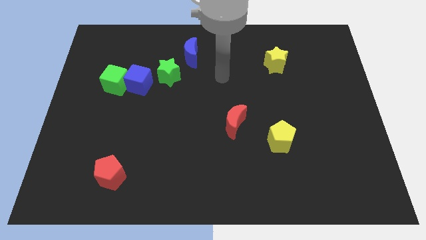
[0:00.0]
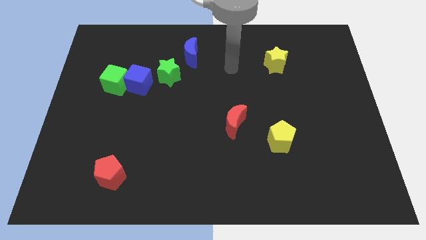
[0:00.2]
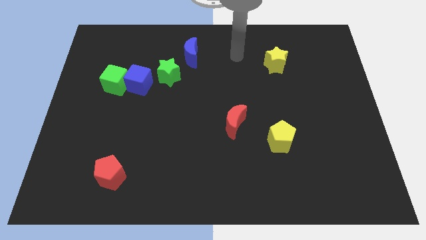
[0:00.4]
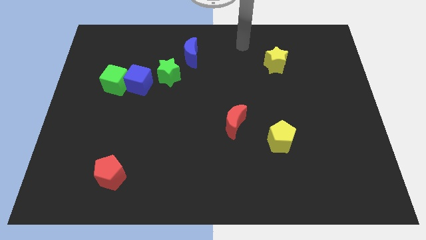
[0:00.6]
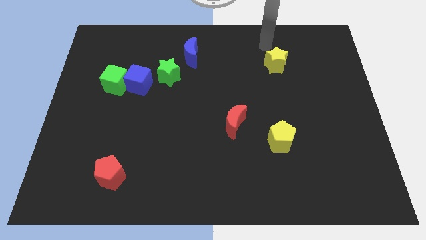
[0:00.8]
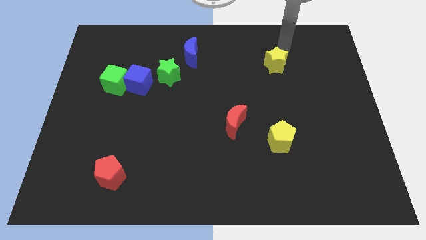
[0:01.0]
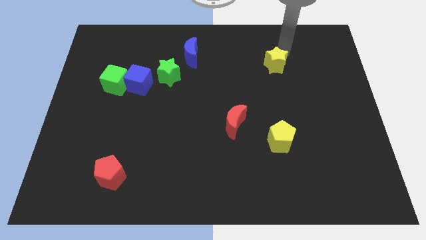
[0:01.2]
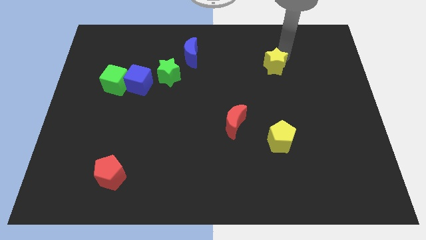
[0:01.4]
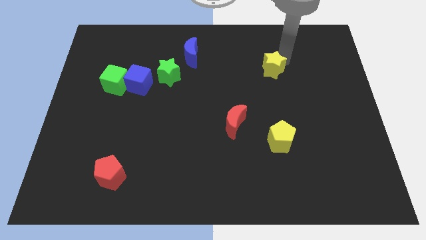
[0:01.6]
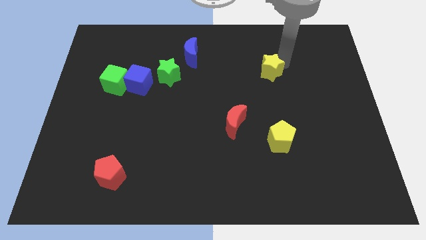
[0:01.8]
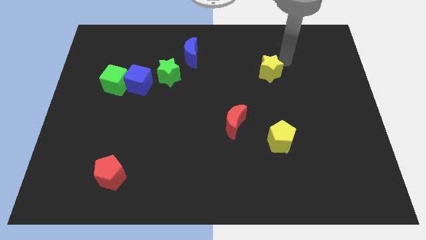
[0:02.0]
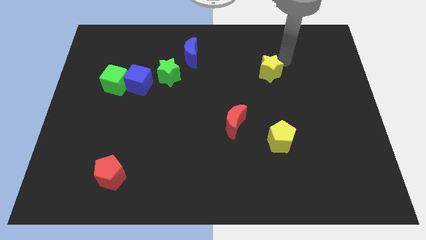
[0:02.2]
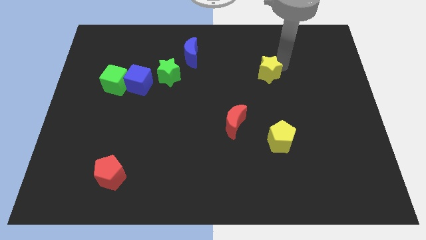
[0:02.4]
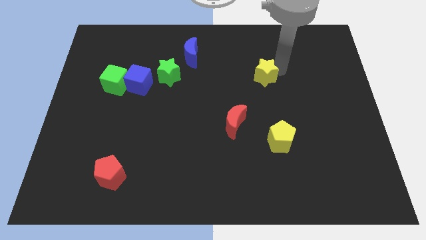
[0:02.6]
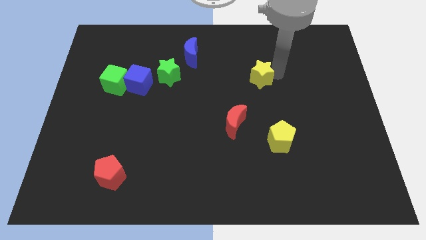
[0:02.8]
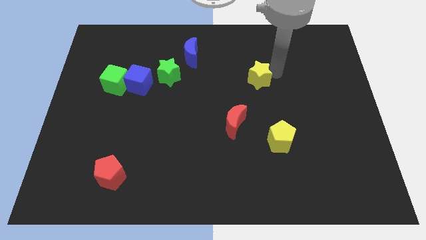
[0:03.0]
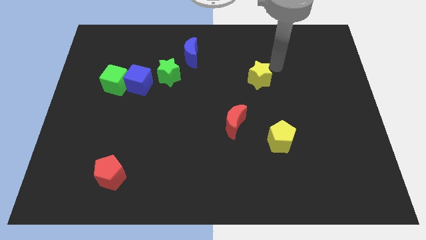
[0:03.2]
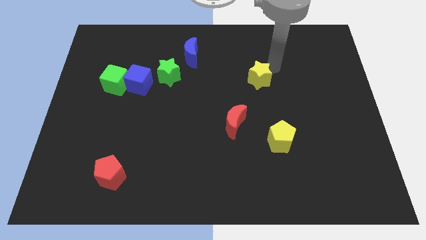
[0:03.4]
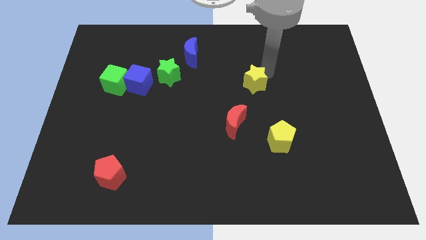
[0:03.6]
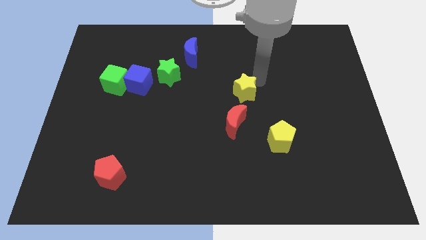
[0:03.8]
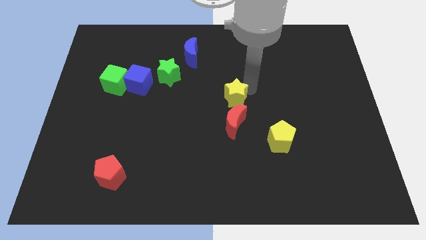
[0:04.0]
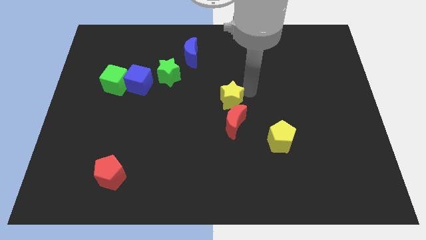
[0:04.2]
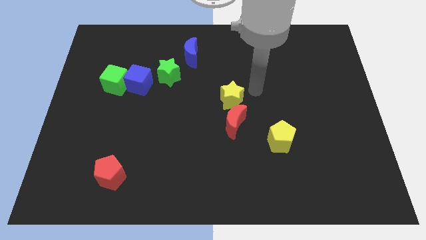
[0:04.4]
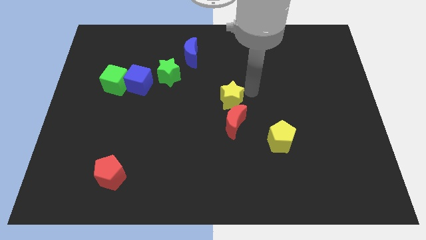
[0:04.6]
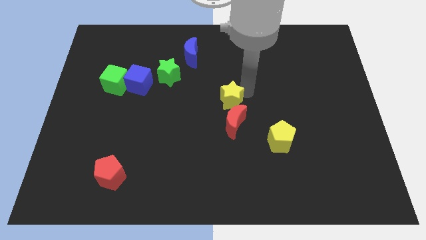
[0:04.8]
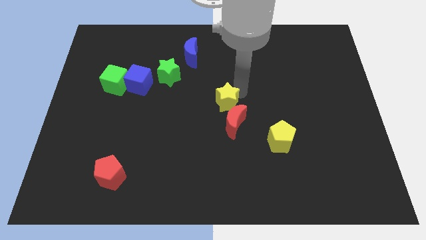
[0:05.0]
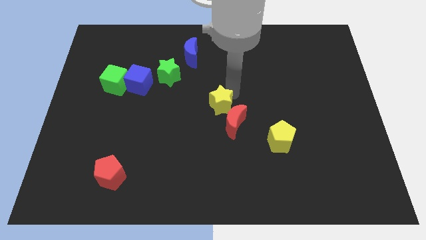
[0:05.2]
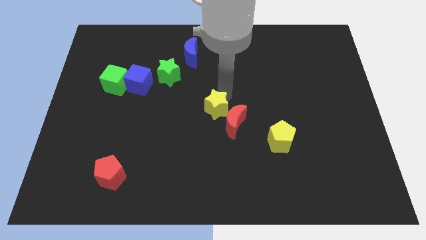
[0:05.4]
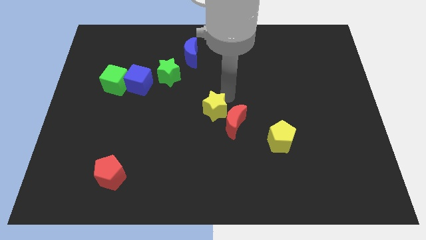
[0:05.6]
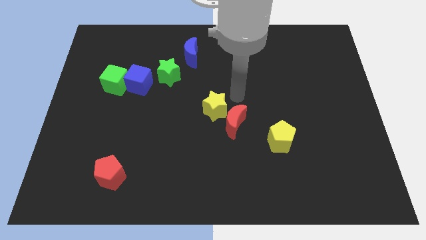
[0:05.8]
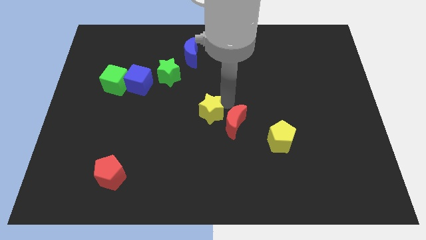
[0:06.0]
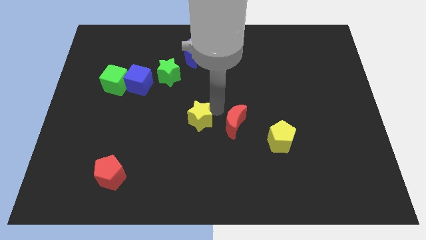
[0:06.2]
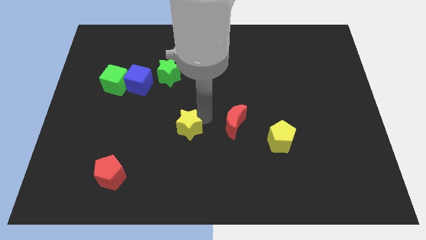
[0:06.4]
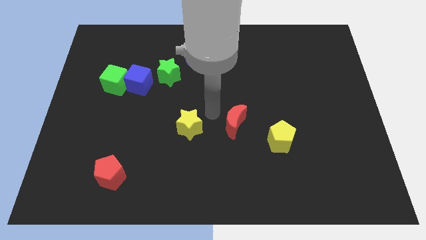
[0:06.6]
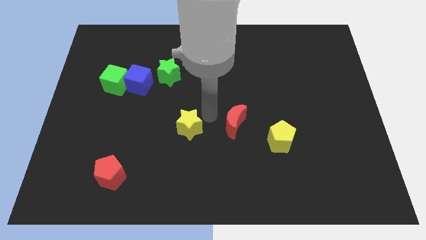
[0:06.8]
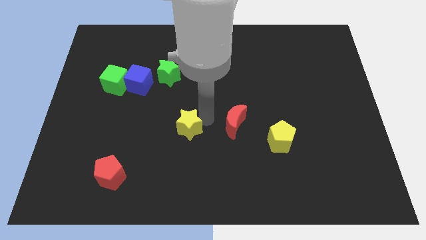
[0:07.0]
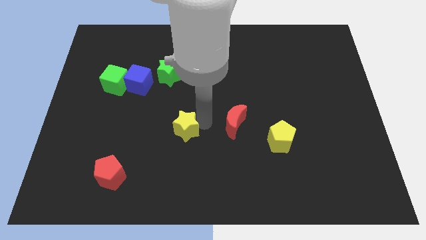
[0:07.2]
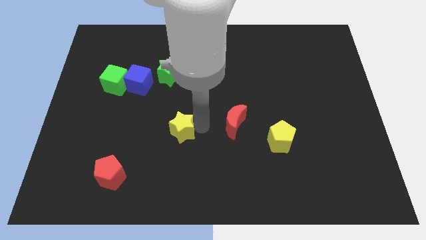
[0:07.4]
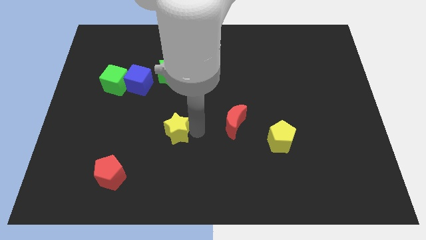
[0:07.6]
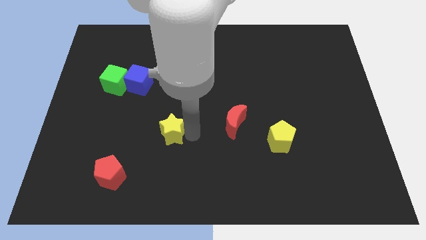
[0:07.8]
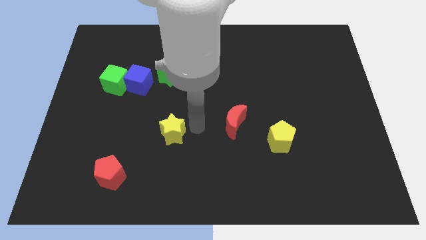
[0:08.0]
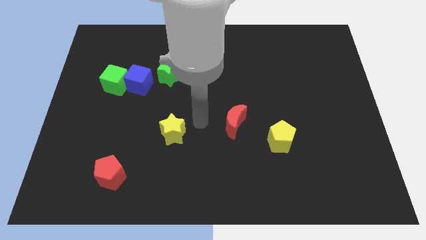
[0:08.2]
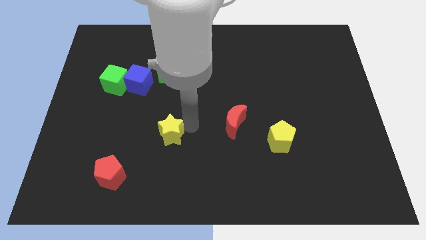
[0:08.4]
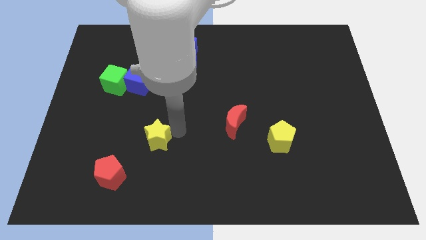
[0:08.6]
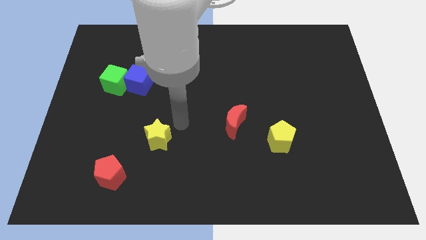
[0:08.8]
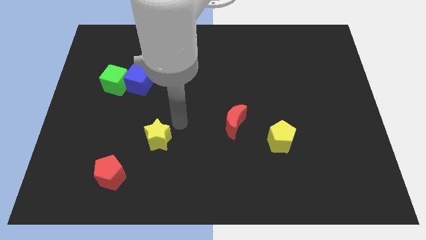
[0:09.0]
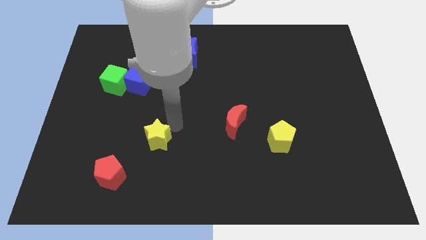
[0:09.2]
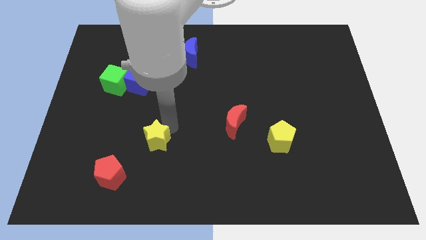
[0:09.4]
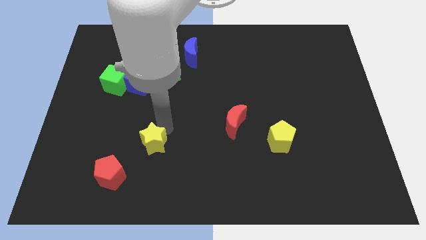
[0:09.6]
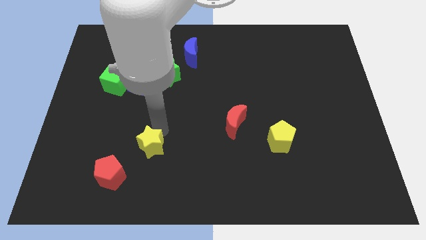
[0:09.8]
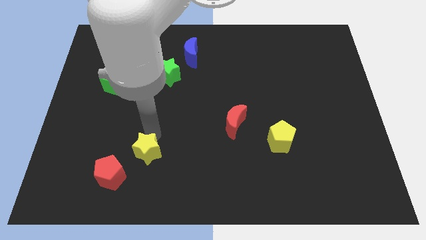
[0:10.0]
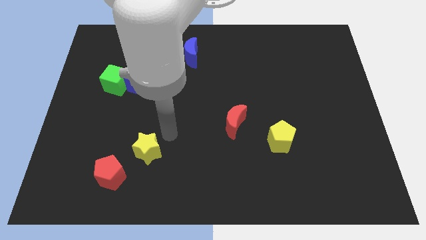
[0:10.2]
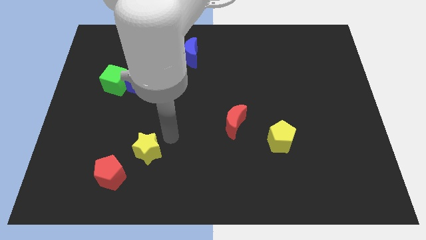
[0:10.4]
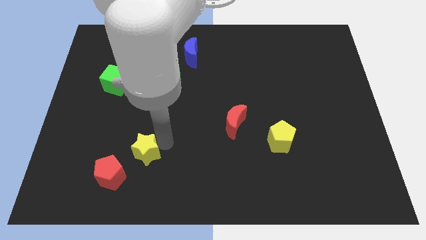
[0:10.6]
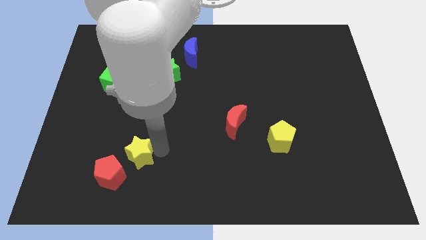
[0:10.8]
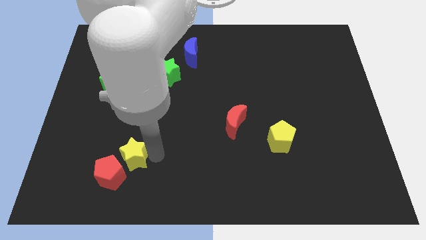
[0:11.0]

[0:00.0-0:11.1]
put the yellow star close to the red pentagon

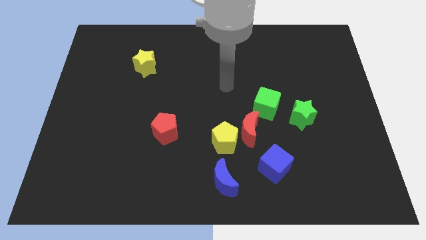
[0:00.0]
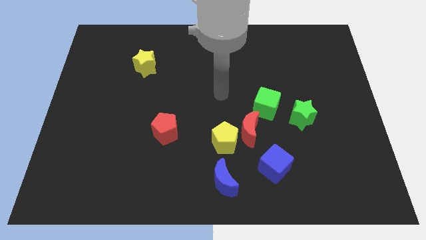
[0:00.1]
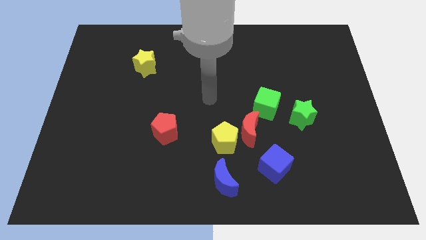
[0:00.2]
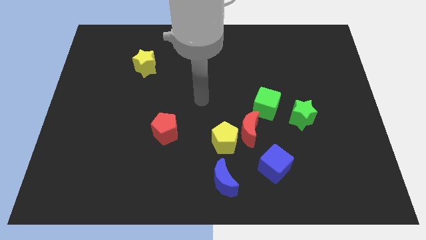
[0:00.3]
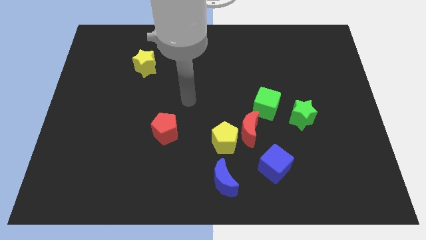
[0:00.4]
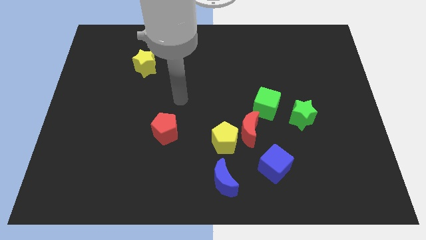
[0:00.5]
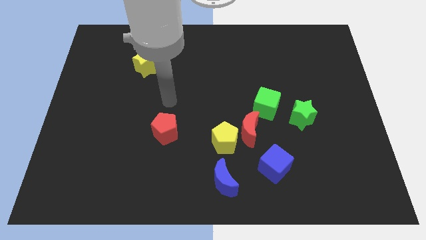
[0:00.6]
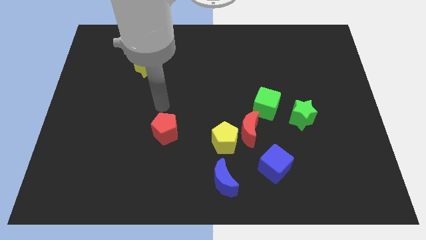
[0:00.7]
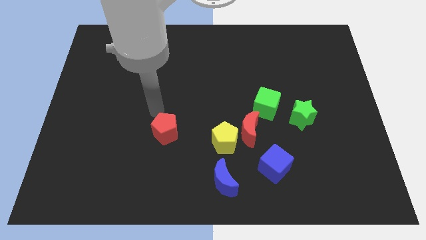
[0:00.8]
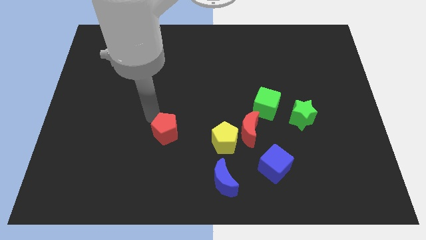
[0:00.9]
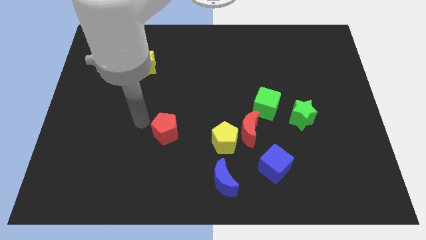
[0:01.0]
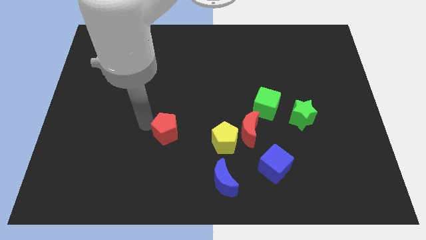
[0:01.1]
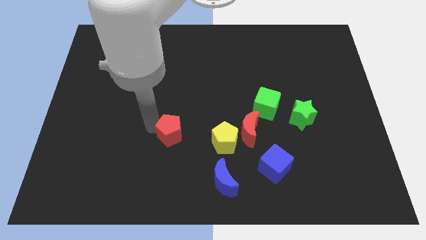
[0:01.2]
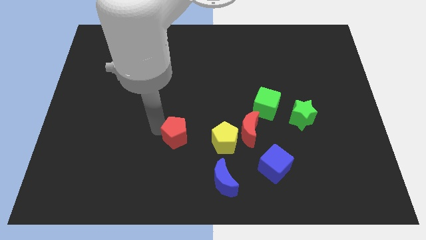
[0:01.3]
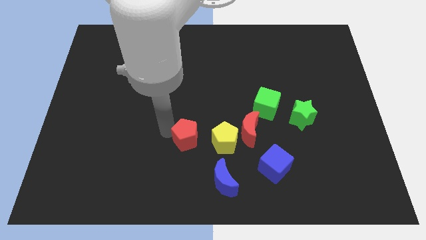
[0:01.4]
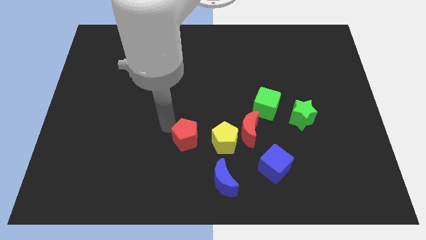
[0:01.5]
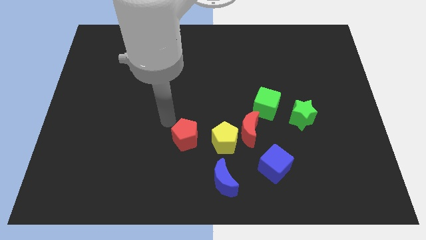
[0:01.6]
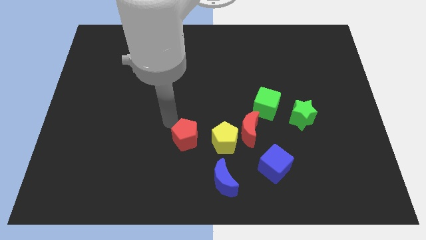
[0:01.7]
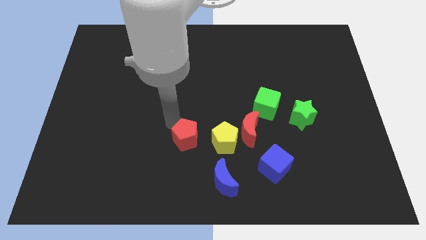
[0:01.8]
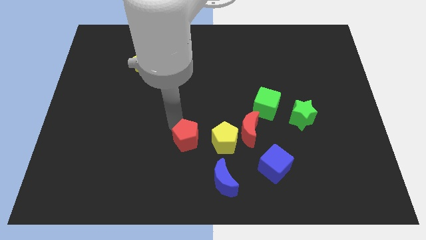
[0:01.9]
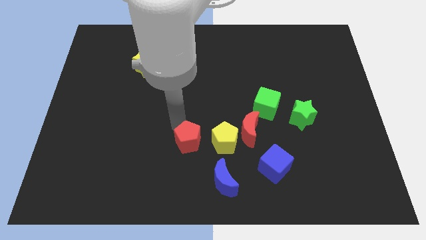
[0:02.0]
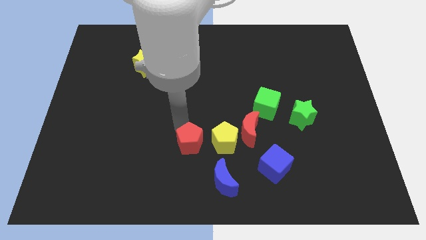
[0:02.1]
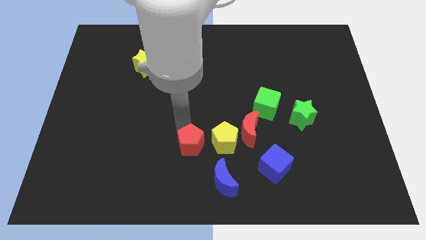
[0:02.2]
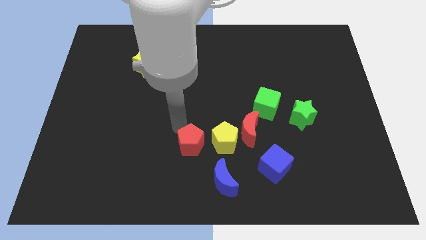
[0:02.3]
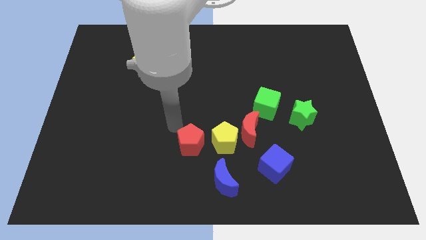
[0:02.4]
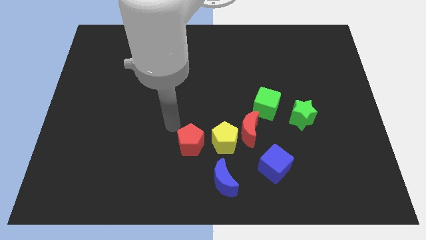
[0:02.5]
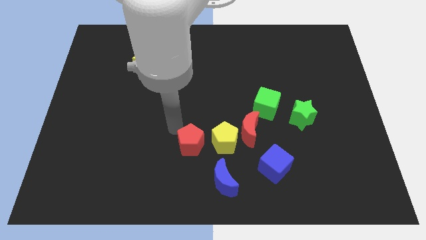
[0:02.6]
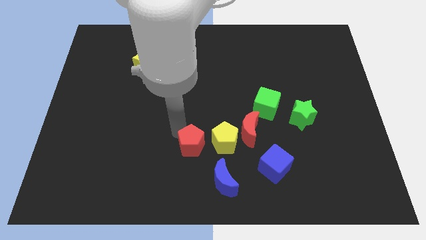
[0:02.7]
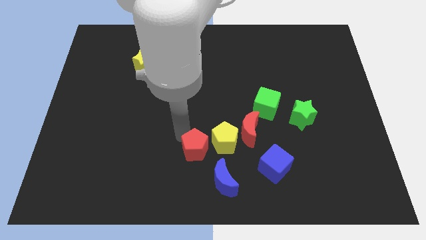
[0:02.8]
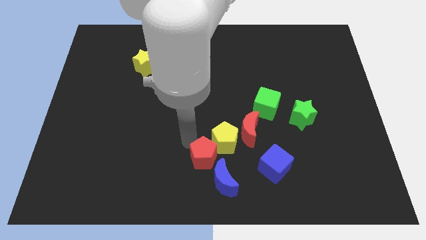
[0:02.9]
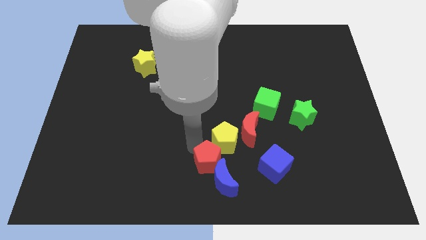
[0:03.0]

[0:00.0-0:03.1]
put the red pentagon close to the blue moon
